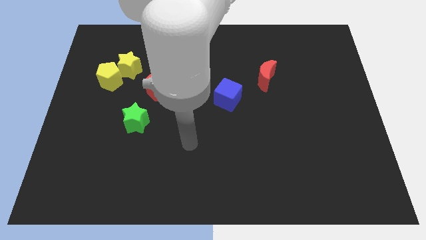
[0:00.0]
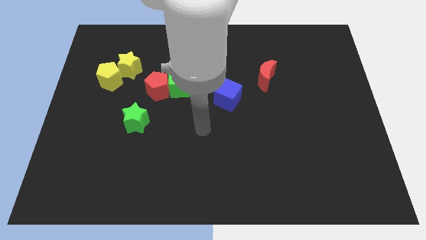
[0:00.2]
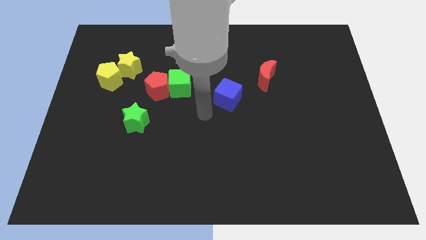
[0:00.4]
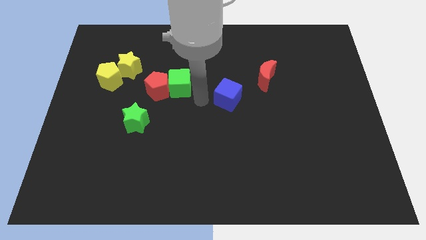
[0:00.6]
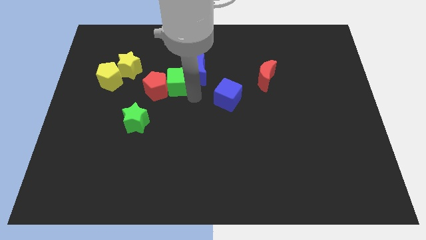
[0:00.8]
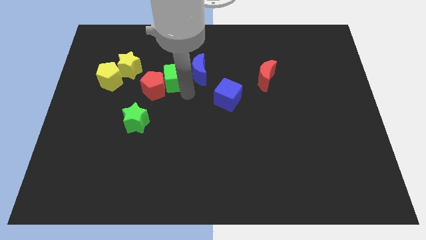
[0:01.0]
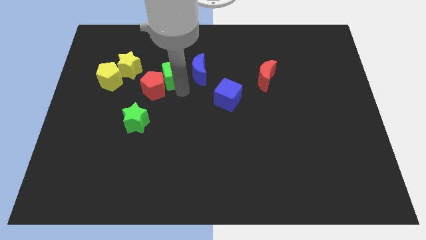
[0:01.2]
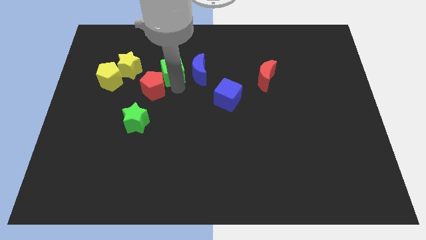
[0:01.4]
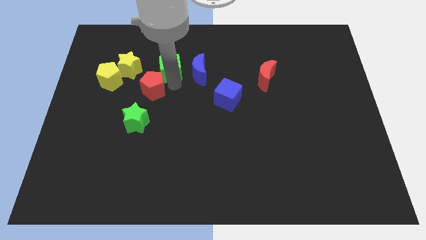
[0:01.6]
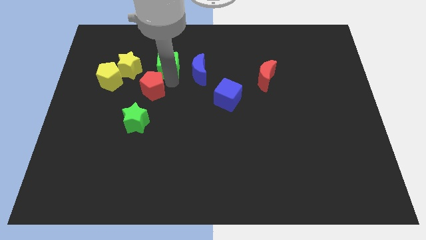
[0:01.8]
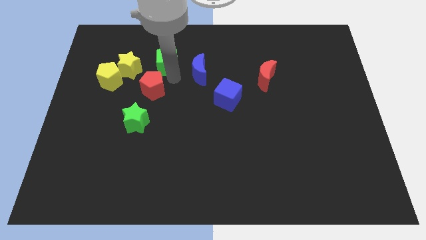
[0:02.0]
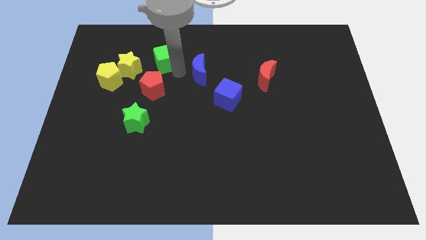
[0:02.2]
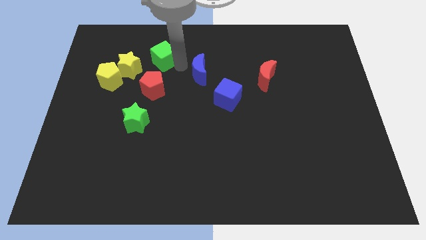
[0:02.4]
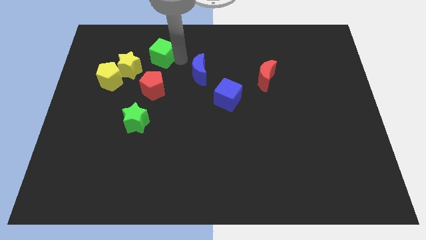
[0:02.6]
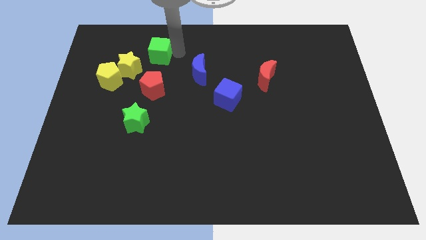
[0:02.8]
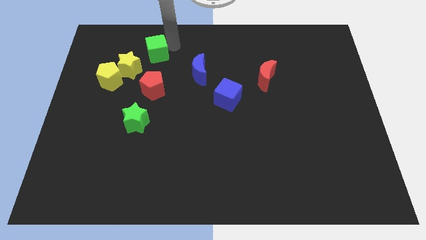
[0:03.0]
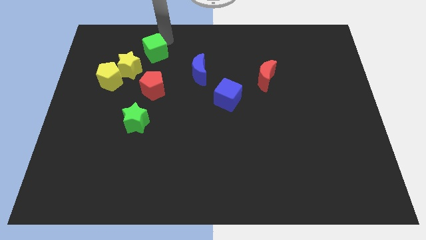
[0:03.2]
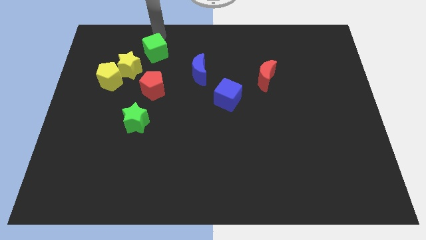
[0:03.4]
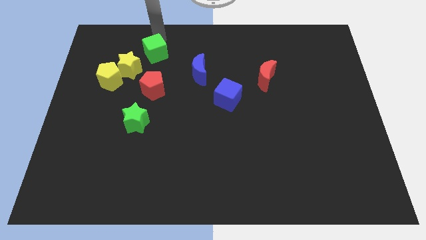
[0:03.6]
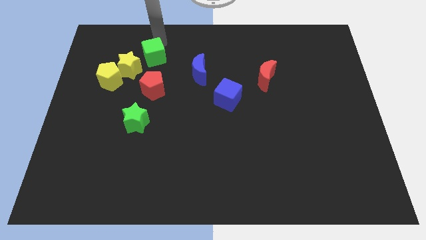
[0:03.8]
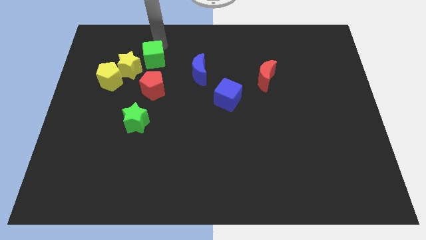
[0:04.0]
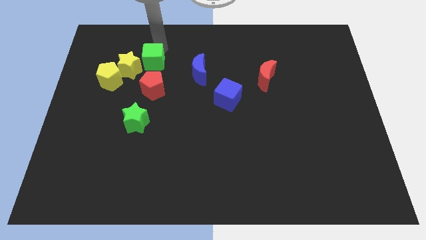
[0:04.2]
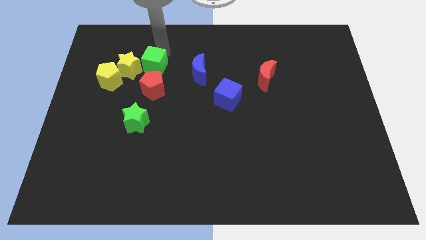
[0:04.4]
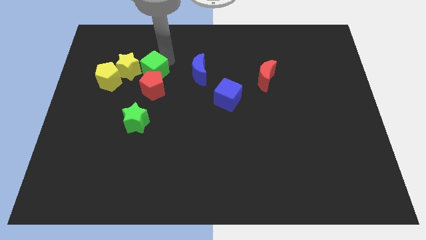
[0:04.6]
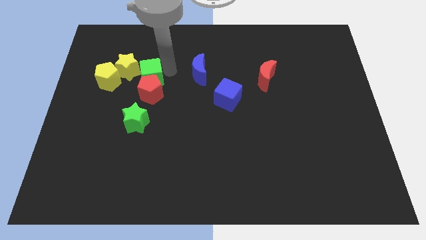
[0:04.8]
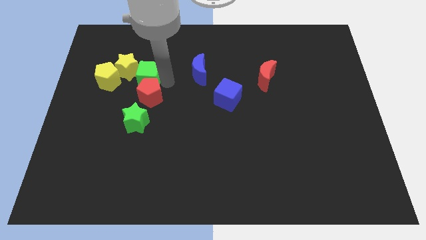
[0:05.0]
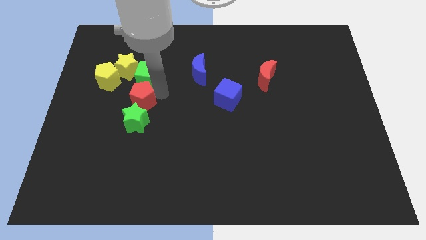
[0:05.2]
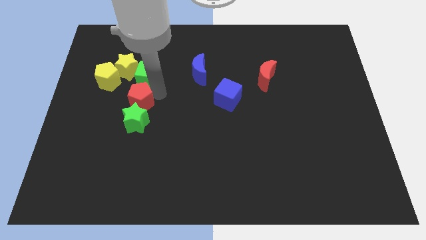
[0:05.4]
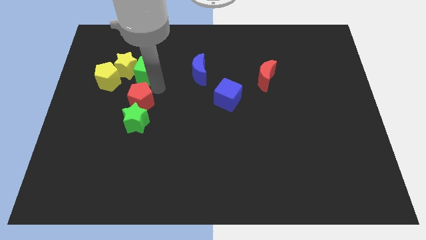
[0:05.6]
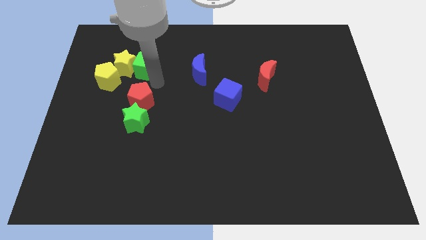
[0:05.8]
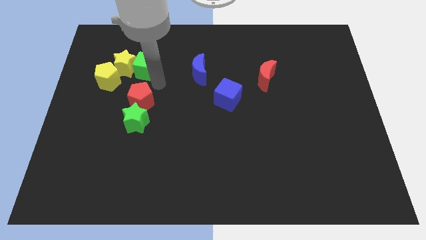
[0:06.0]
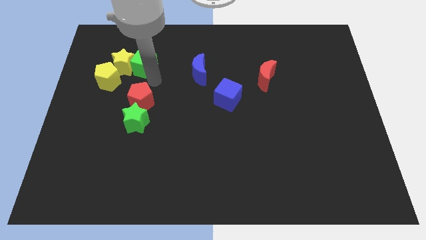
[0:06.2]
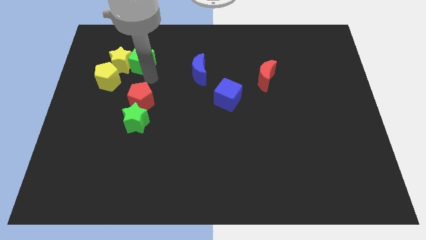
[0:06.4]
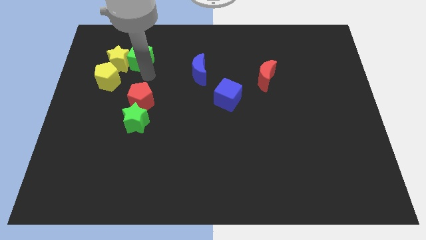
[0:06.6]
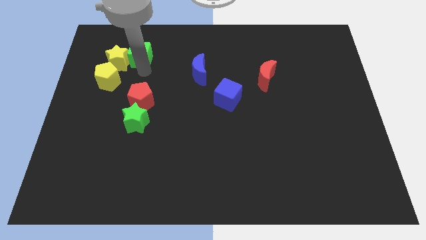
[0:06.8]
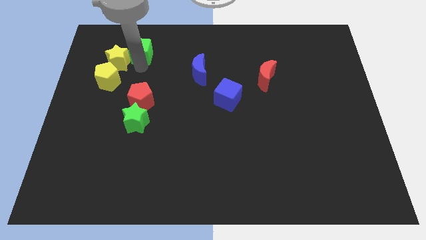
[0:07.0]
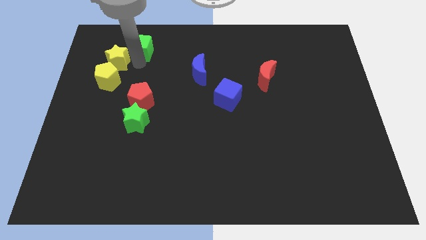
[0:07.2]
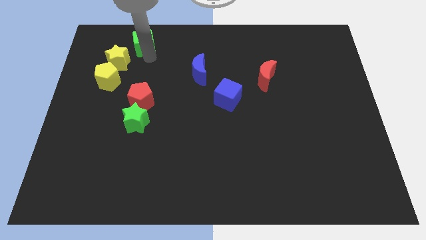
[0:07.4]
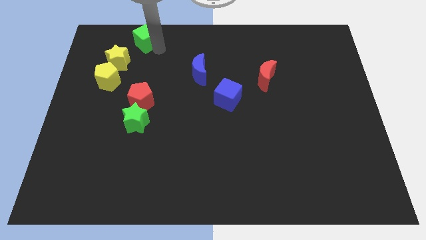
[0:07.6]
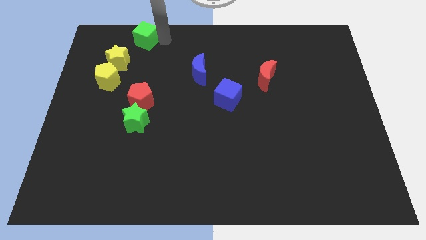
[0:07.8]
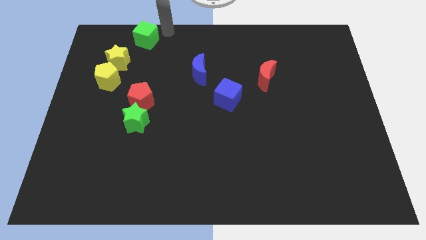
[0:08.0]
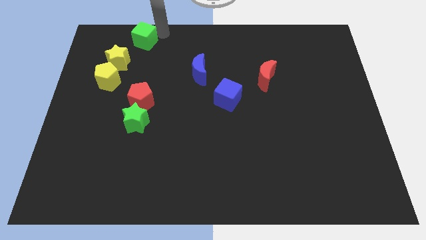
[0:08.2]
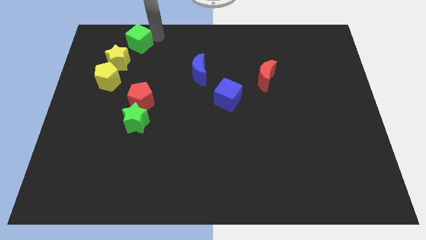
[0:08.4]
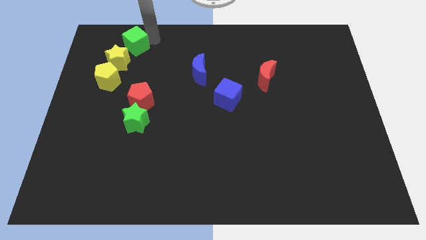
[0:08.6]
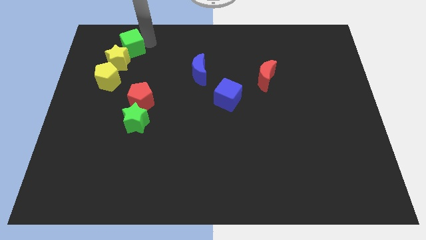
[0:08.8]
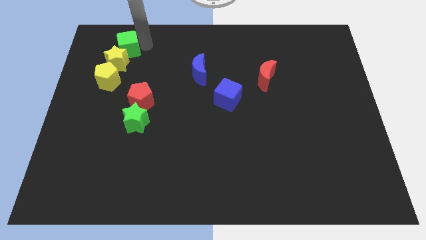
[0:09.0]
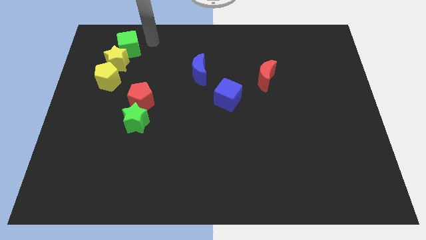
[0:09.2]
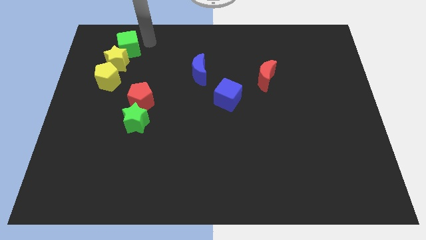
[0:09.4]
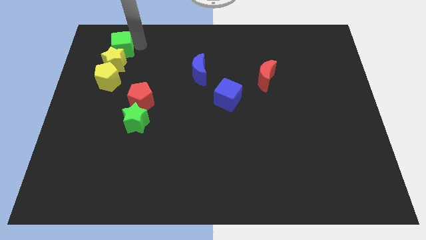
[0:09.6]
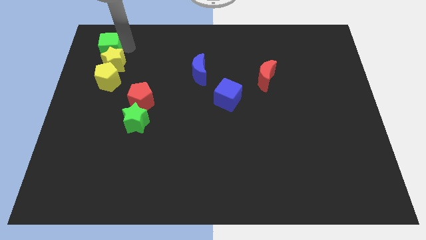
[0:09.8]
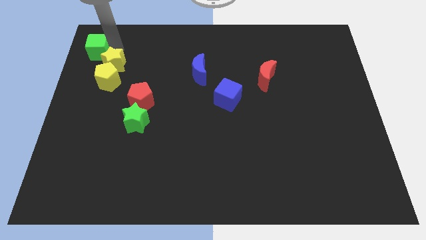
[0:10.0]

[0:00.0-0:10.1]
put the green cube to the top left

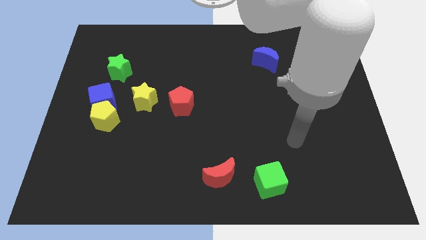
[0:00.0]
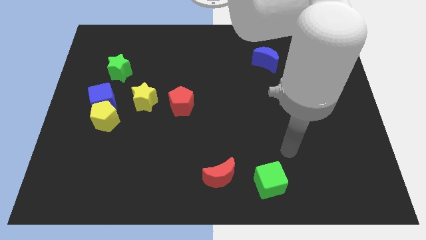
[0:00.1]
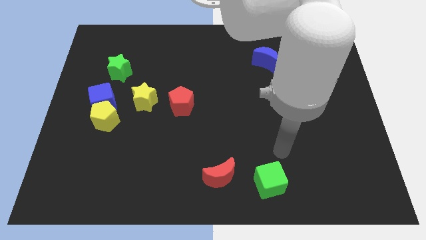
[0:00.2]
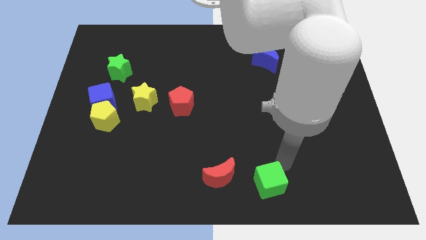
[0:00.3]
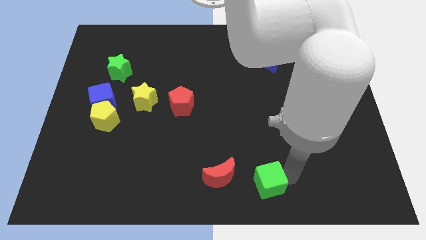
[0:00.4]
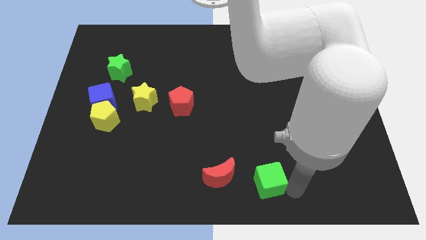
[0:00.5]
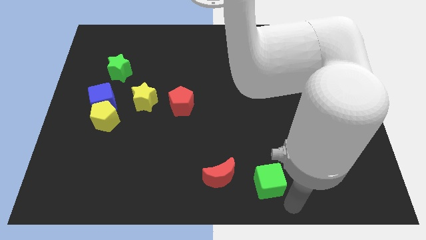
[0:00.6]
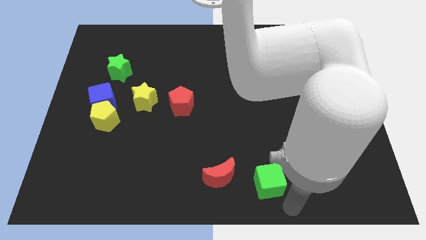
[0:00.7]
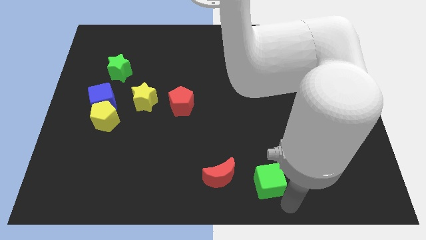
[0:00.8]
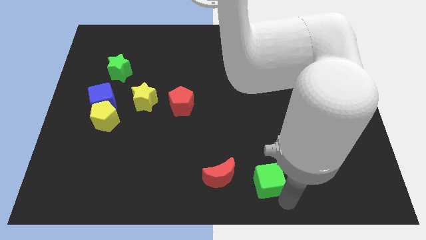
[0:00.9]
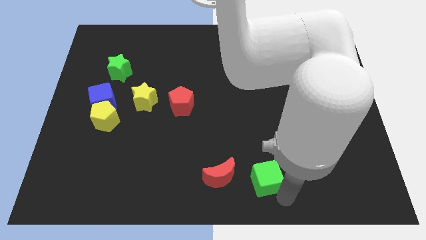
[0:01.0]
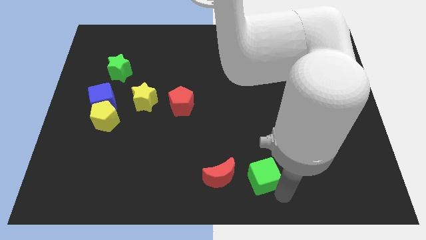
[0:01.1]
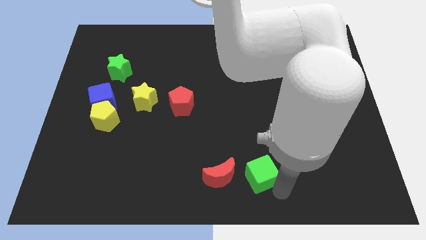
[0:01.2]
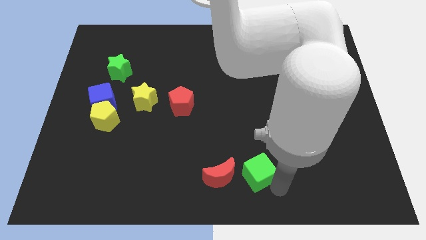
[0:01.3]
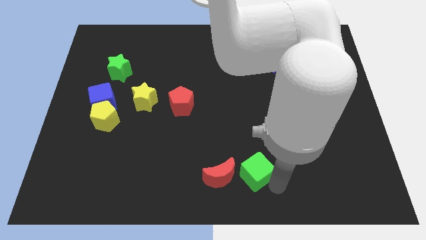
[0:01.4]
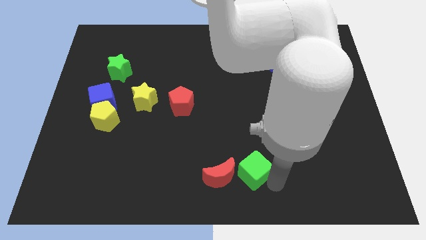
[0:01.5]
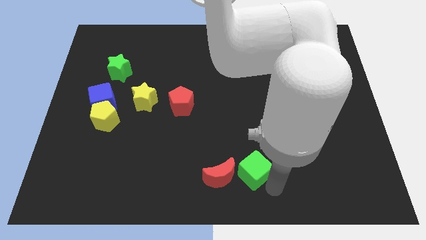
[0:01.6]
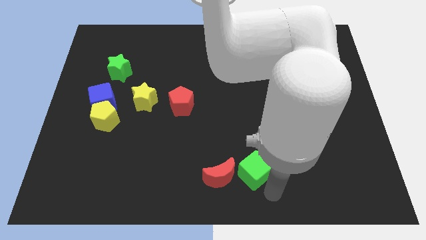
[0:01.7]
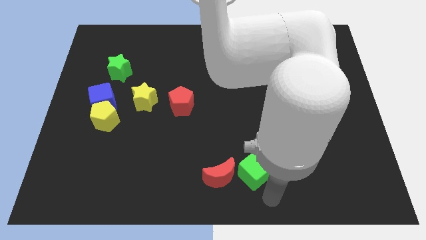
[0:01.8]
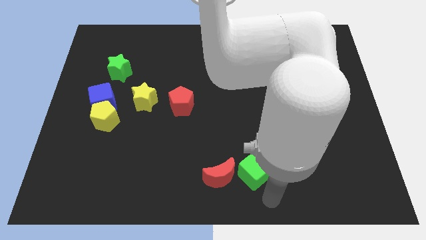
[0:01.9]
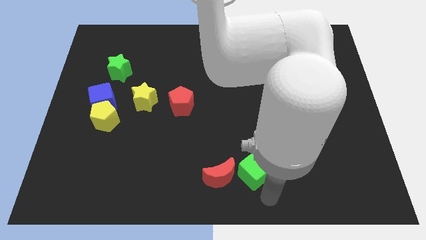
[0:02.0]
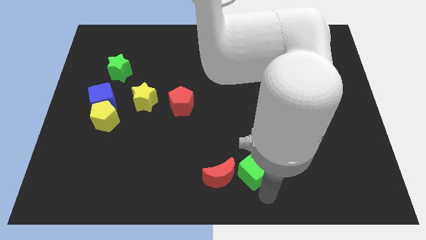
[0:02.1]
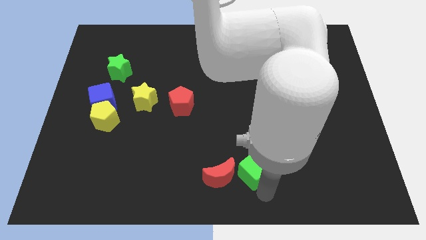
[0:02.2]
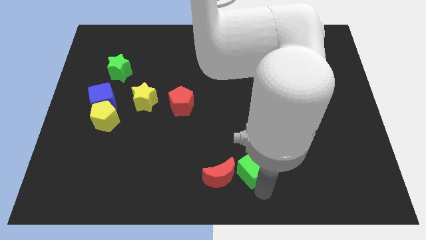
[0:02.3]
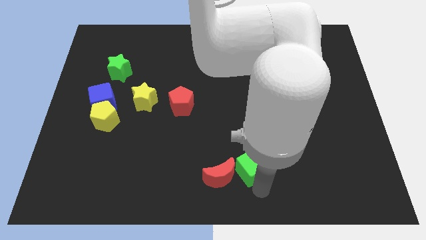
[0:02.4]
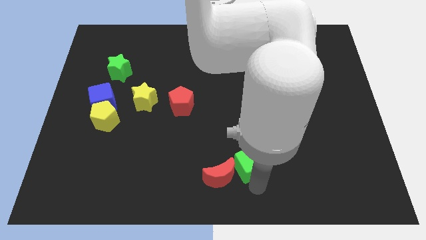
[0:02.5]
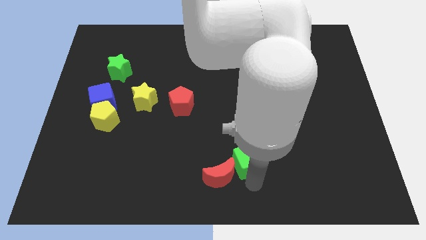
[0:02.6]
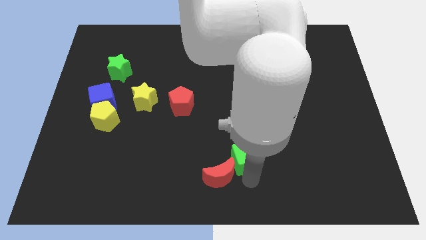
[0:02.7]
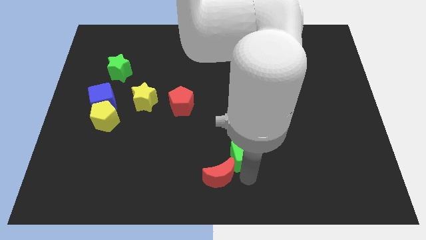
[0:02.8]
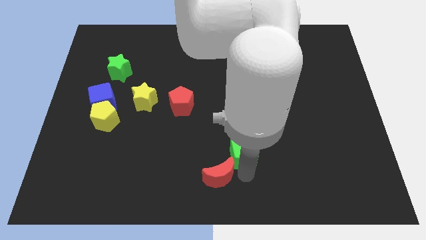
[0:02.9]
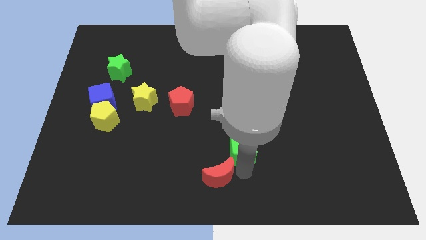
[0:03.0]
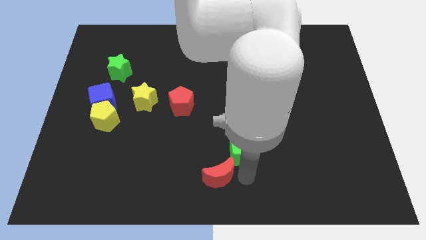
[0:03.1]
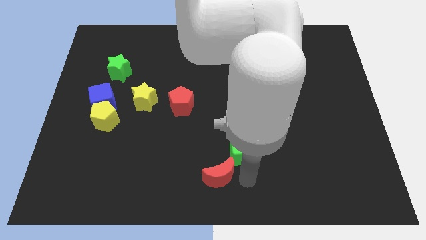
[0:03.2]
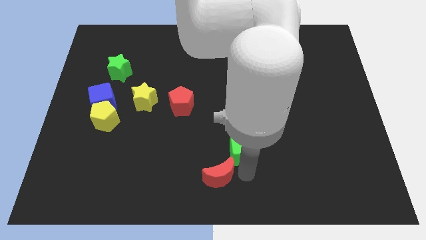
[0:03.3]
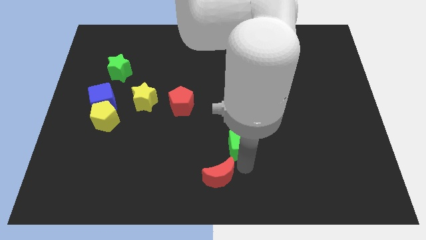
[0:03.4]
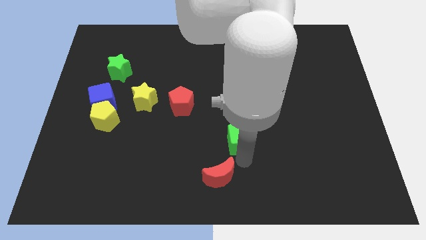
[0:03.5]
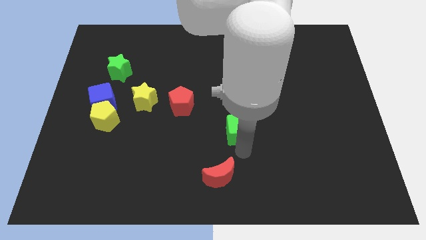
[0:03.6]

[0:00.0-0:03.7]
push the green cube to the center
